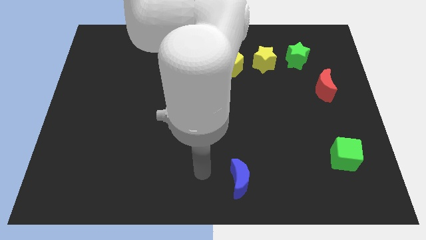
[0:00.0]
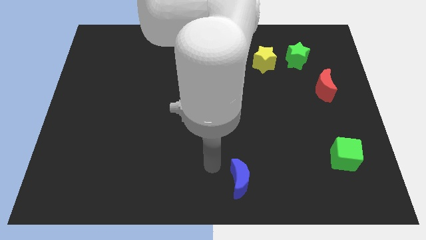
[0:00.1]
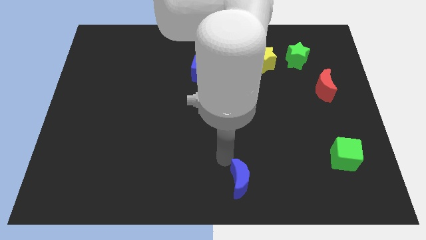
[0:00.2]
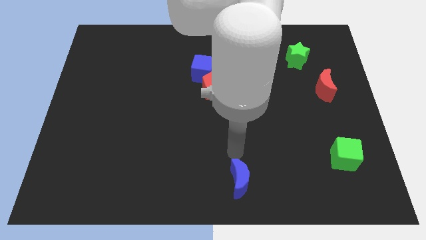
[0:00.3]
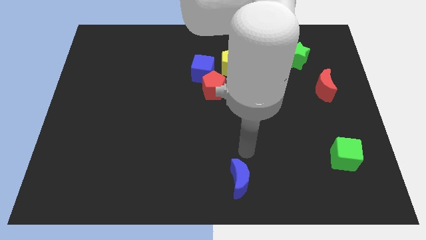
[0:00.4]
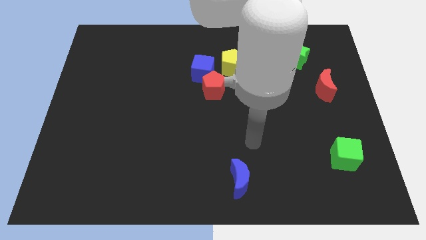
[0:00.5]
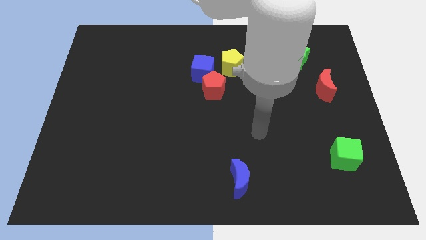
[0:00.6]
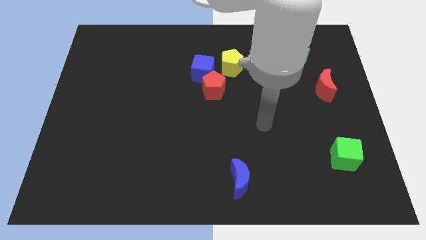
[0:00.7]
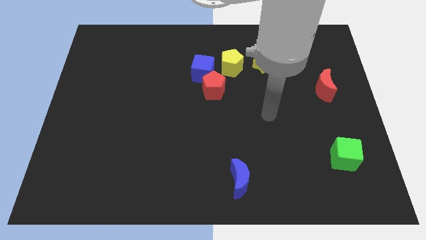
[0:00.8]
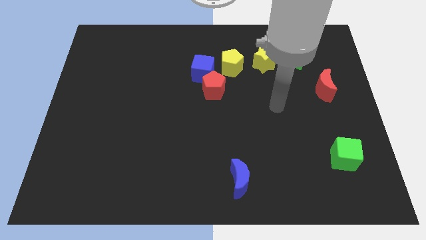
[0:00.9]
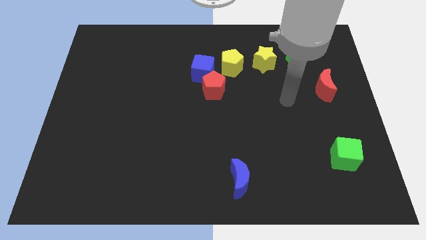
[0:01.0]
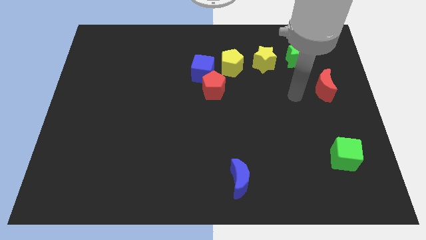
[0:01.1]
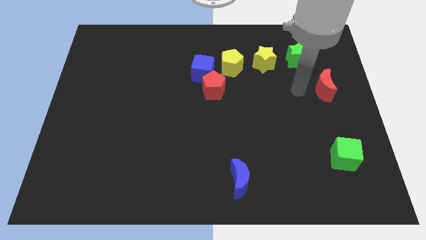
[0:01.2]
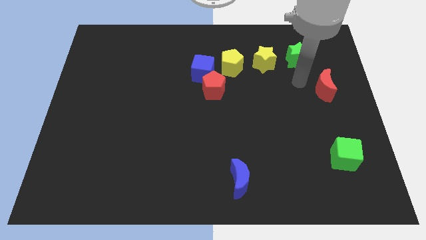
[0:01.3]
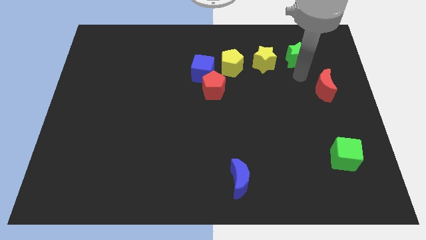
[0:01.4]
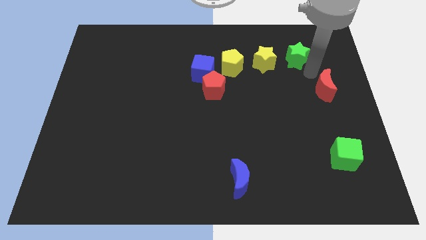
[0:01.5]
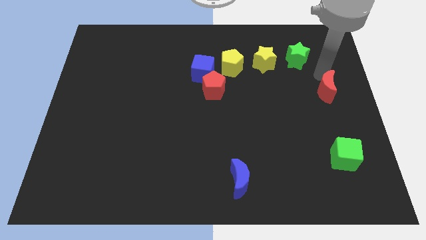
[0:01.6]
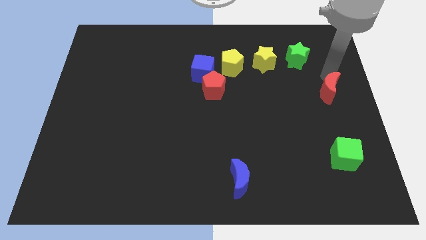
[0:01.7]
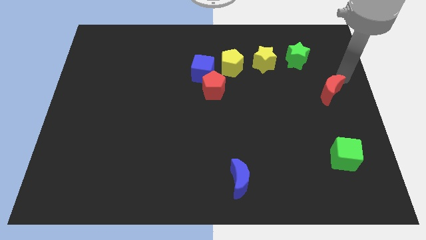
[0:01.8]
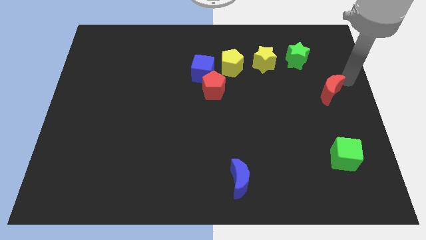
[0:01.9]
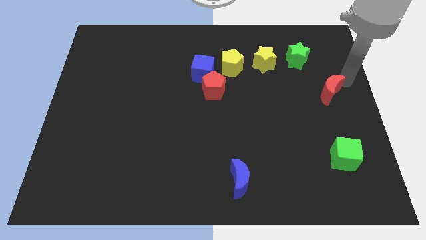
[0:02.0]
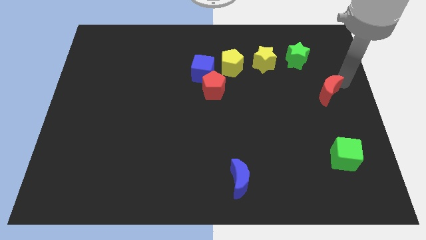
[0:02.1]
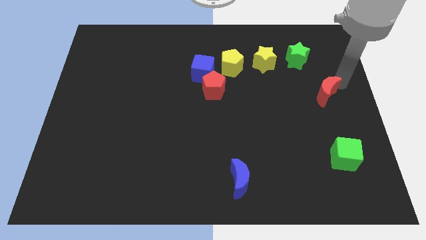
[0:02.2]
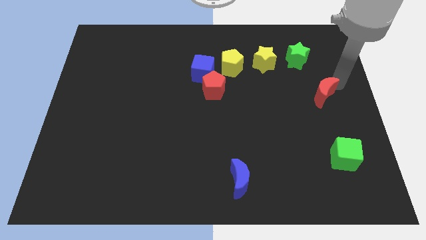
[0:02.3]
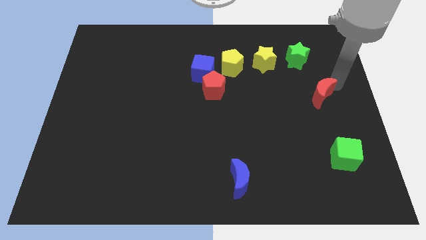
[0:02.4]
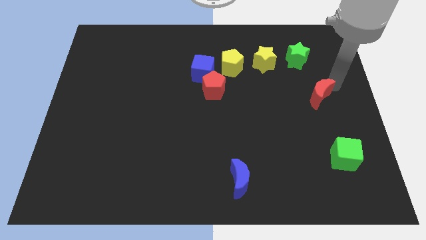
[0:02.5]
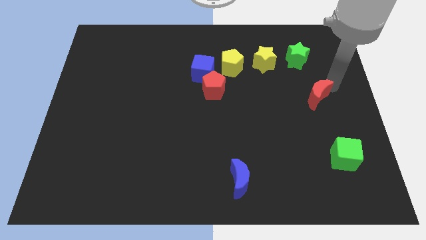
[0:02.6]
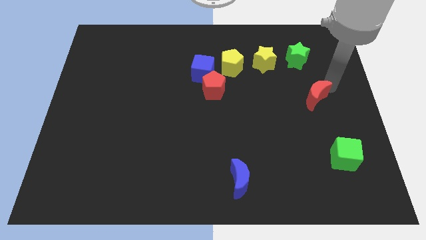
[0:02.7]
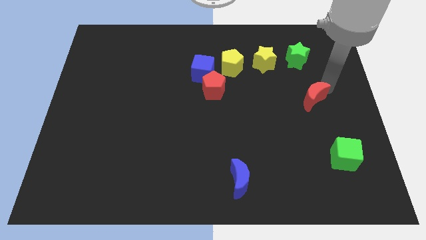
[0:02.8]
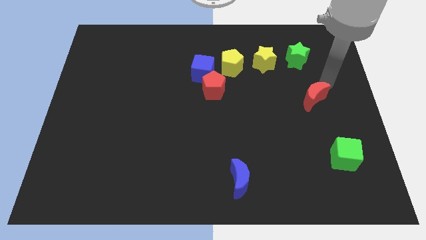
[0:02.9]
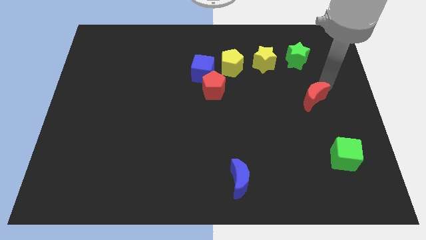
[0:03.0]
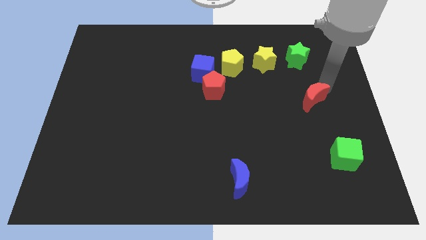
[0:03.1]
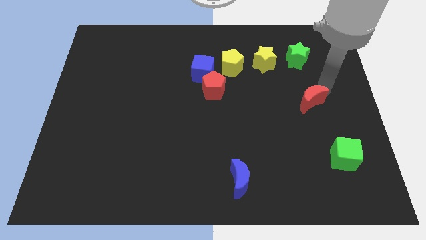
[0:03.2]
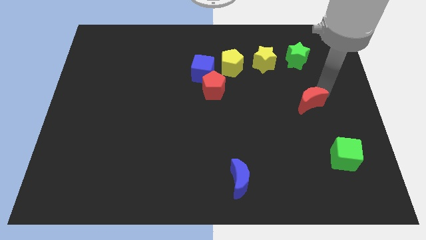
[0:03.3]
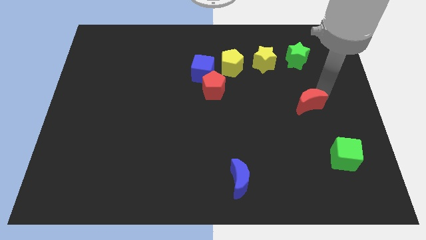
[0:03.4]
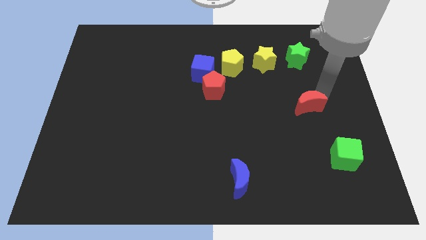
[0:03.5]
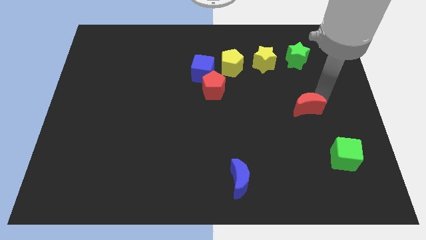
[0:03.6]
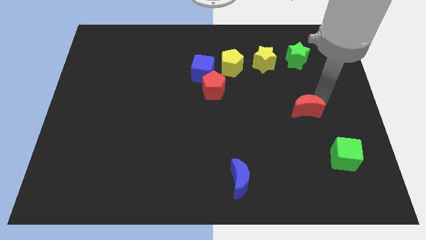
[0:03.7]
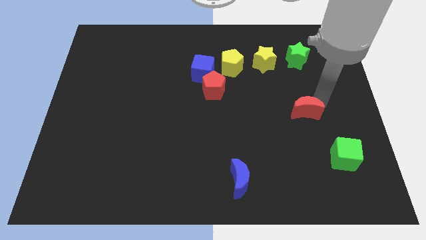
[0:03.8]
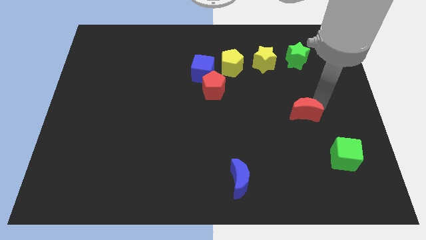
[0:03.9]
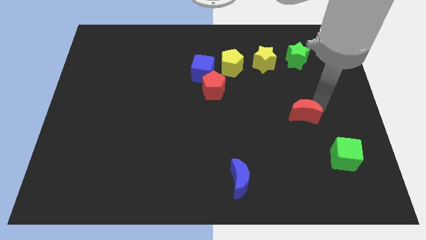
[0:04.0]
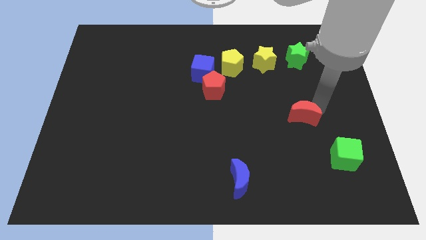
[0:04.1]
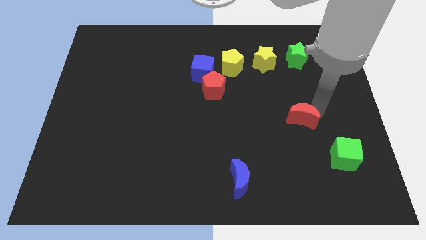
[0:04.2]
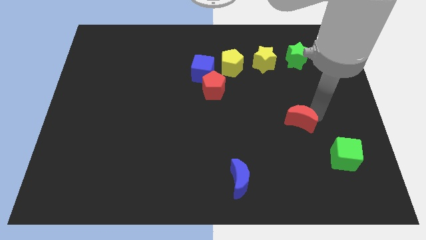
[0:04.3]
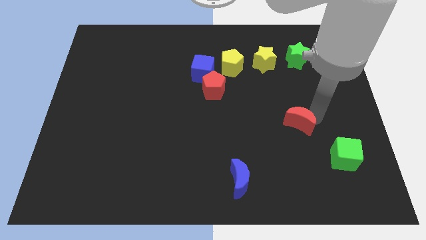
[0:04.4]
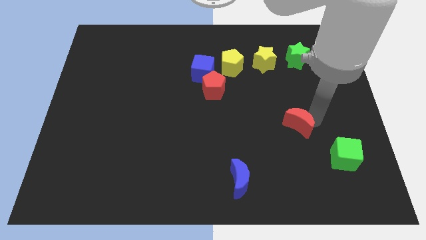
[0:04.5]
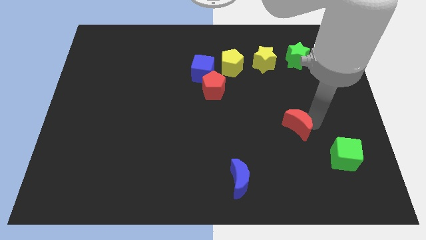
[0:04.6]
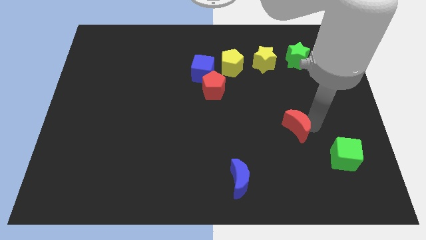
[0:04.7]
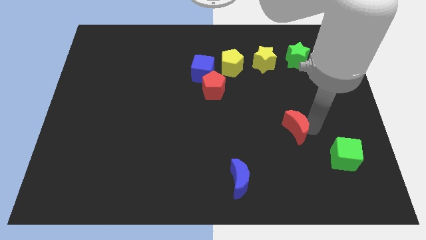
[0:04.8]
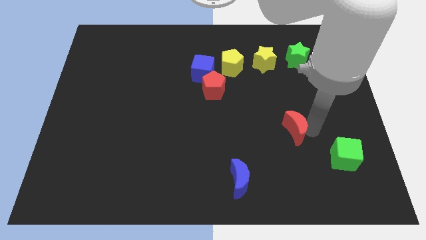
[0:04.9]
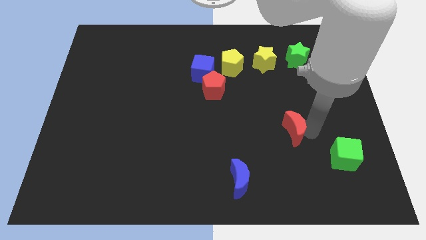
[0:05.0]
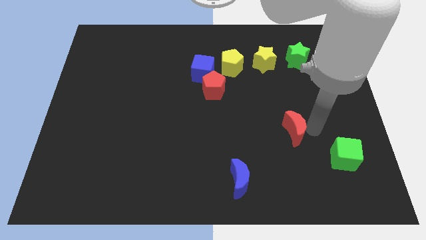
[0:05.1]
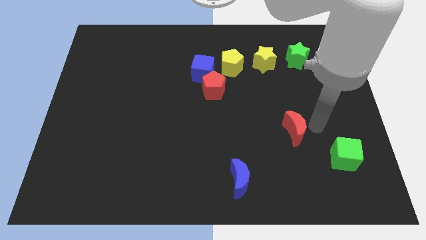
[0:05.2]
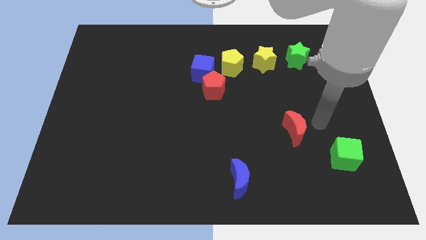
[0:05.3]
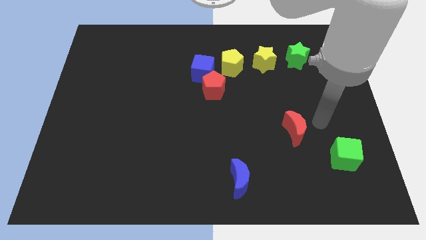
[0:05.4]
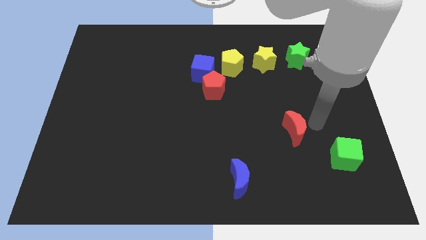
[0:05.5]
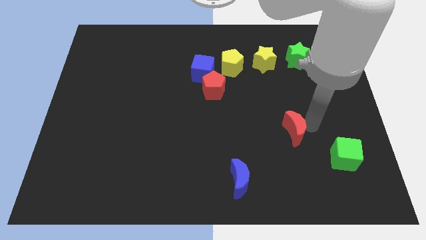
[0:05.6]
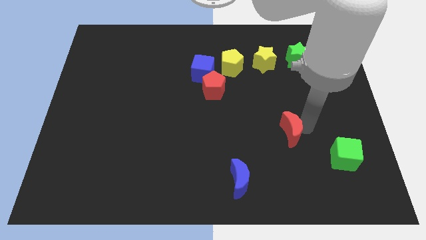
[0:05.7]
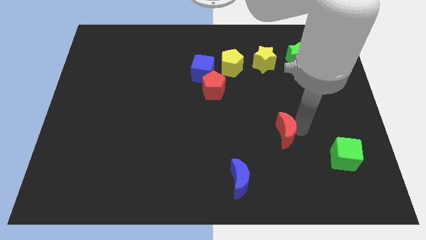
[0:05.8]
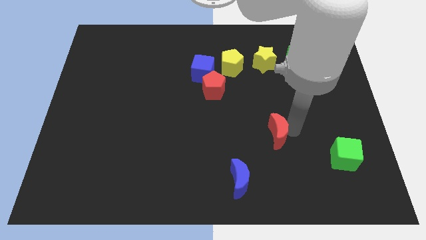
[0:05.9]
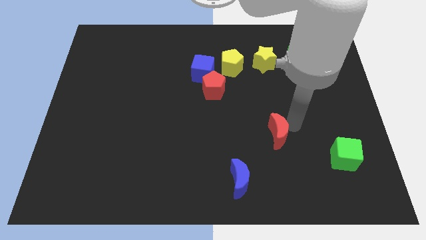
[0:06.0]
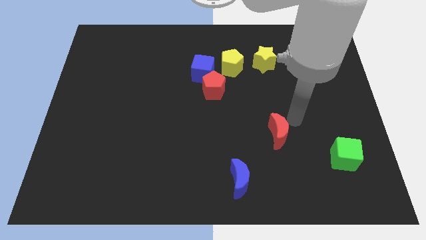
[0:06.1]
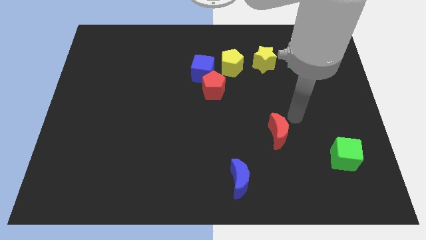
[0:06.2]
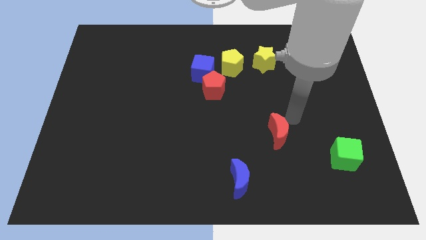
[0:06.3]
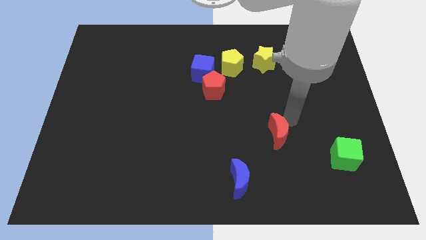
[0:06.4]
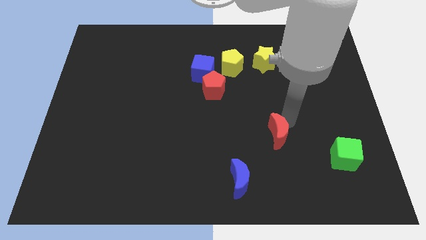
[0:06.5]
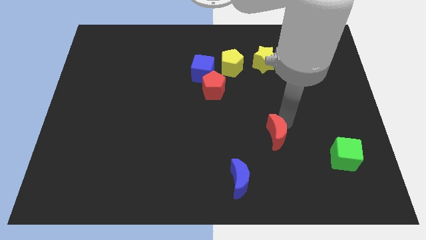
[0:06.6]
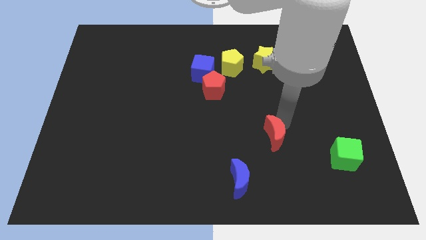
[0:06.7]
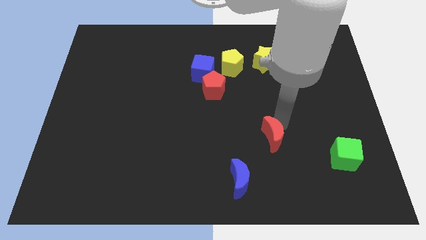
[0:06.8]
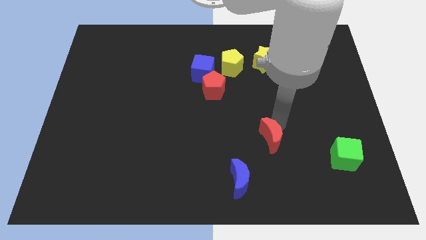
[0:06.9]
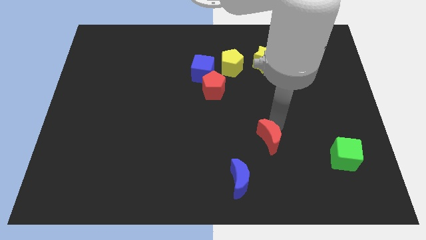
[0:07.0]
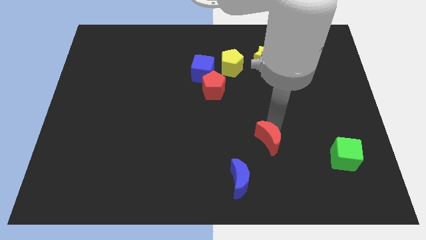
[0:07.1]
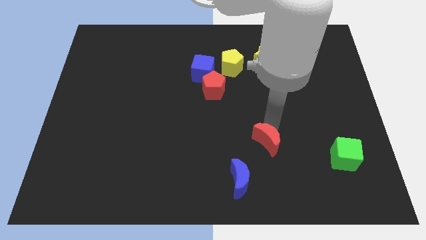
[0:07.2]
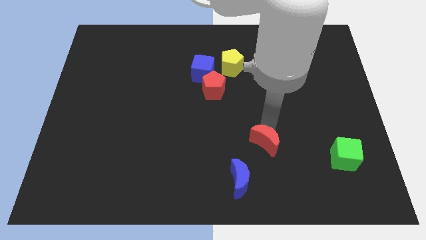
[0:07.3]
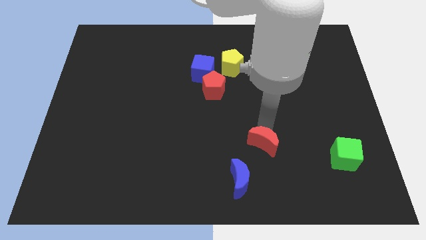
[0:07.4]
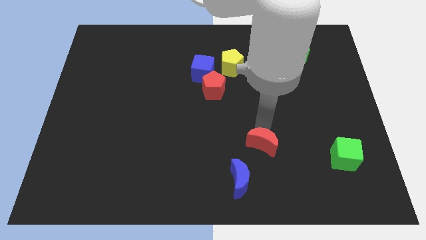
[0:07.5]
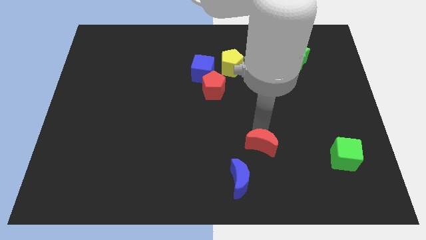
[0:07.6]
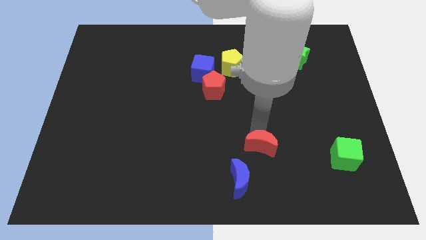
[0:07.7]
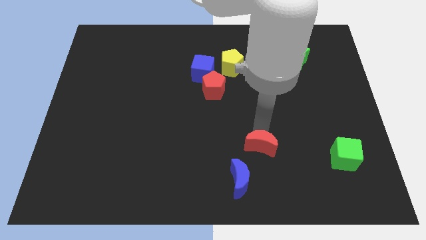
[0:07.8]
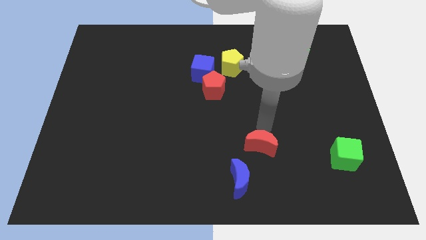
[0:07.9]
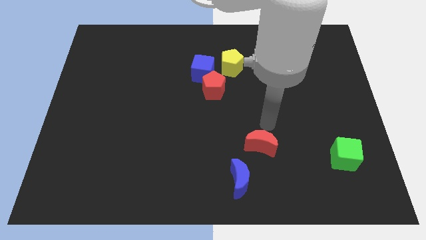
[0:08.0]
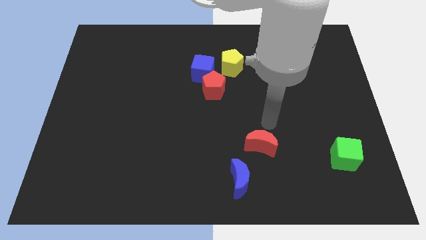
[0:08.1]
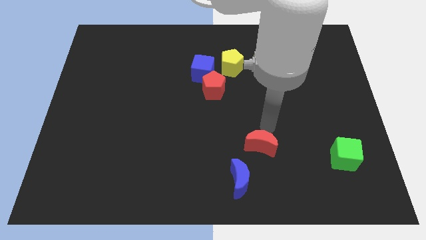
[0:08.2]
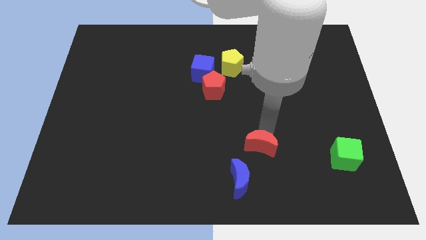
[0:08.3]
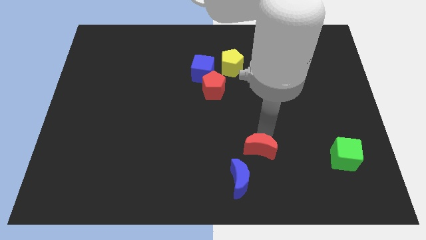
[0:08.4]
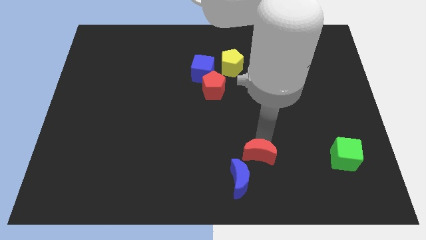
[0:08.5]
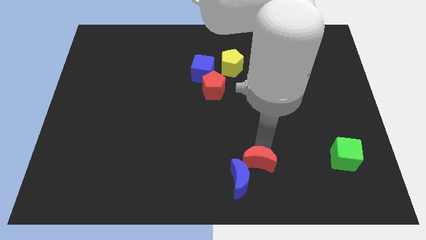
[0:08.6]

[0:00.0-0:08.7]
slide the red moon to the blue moon
